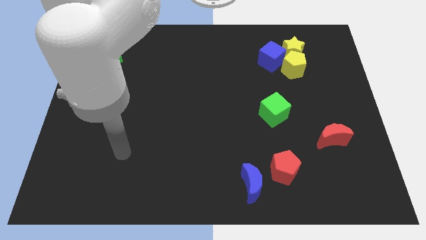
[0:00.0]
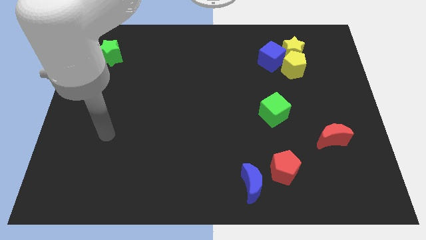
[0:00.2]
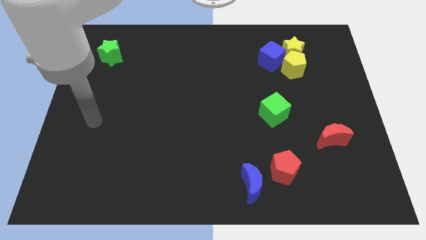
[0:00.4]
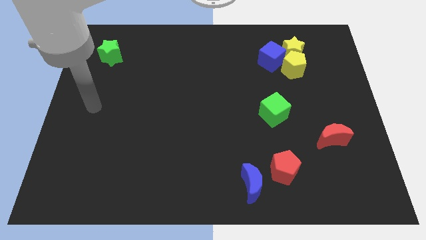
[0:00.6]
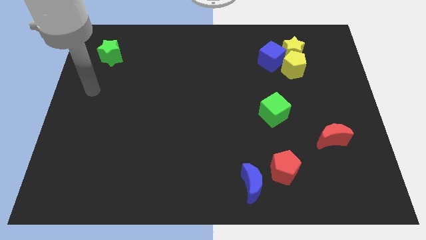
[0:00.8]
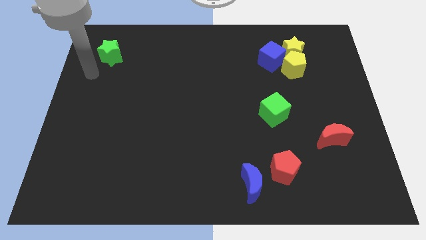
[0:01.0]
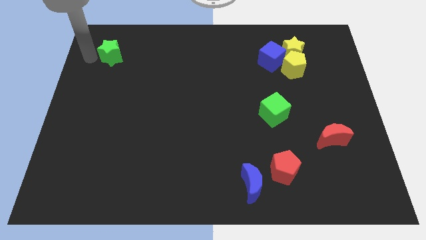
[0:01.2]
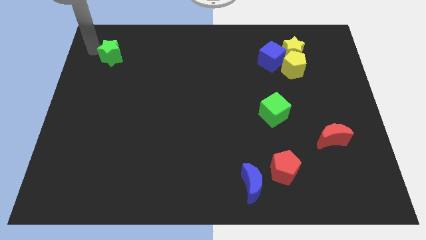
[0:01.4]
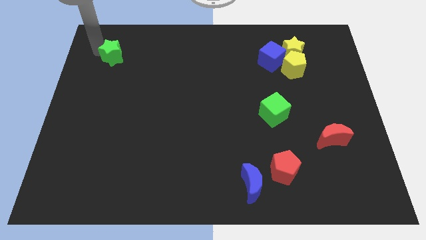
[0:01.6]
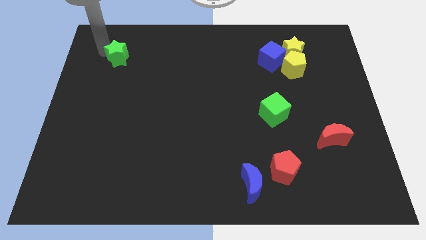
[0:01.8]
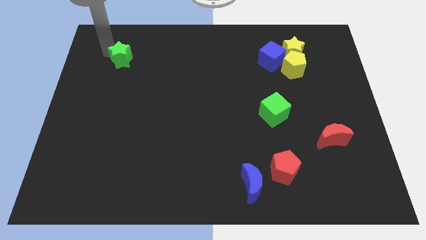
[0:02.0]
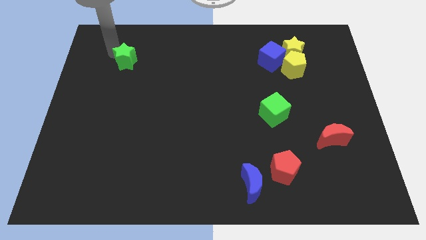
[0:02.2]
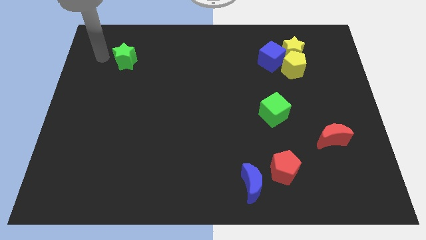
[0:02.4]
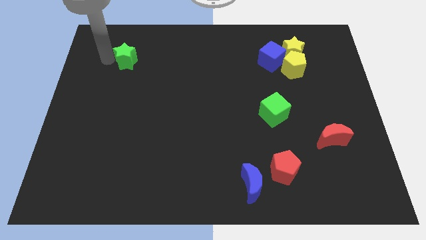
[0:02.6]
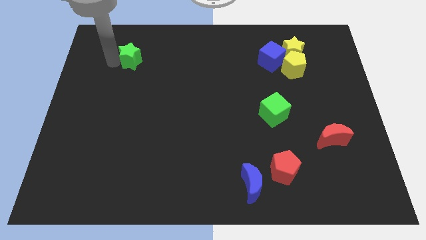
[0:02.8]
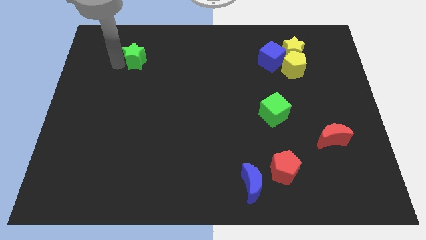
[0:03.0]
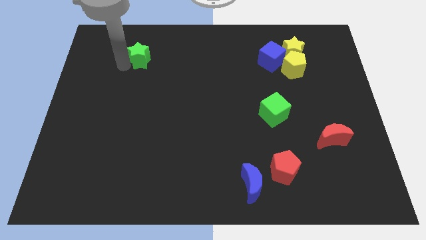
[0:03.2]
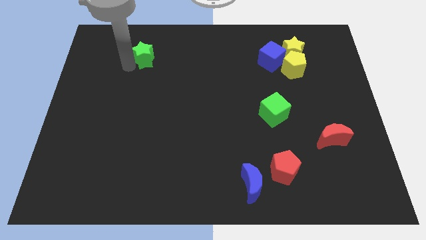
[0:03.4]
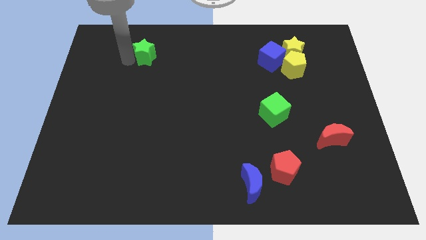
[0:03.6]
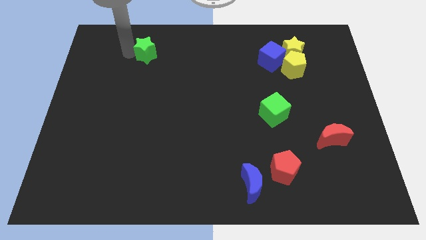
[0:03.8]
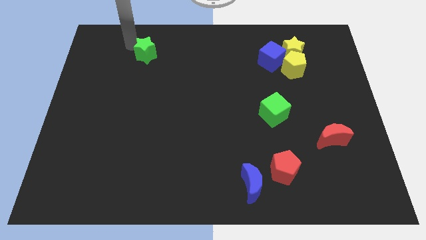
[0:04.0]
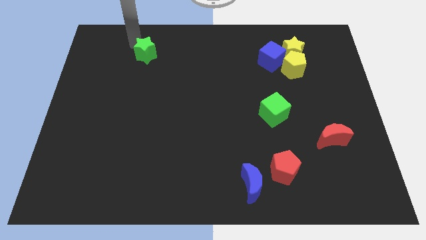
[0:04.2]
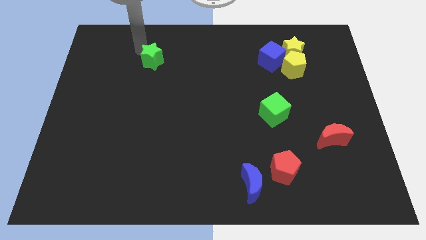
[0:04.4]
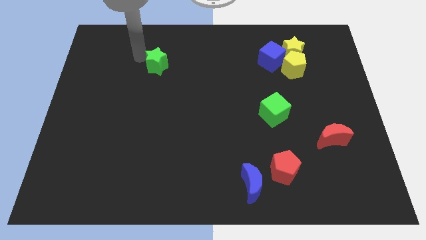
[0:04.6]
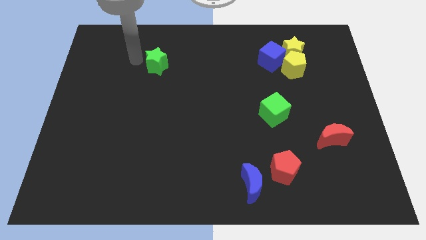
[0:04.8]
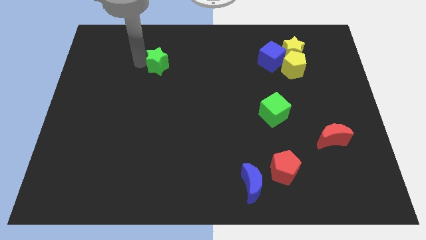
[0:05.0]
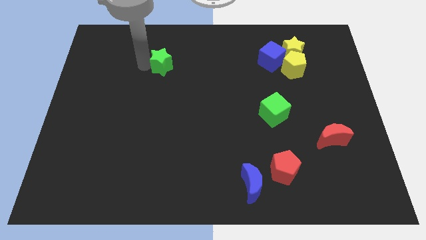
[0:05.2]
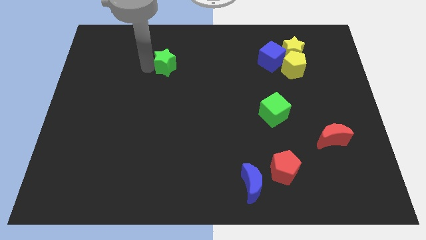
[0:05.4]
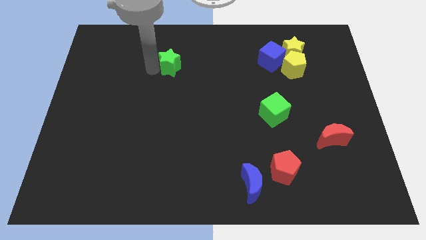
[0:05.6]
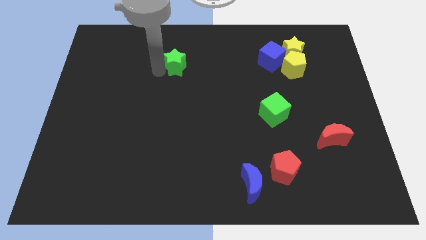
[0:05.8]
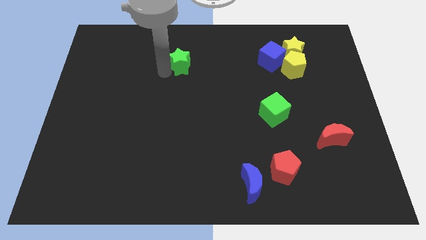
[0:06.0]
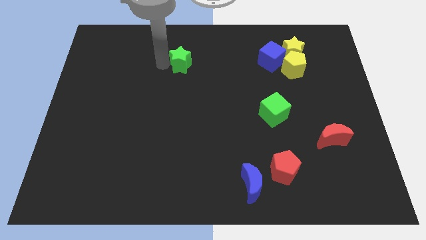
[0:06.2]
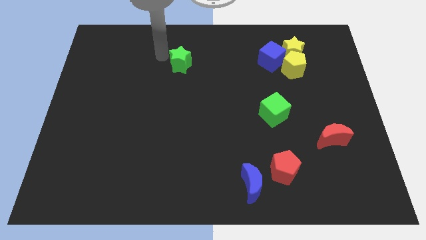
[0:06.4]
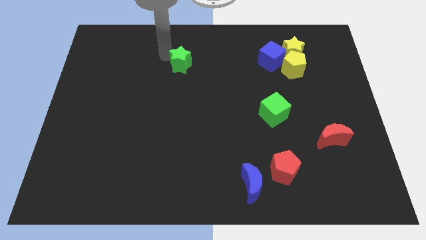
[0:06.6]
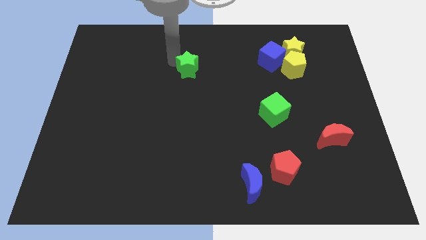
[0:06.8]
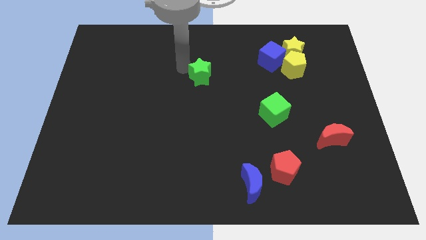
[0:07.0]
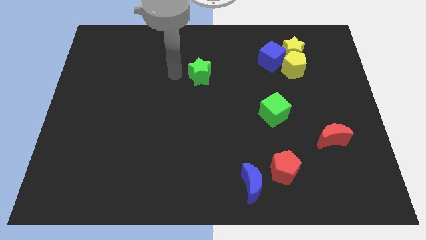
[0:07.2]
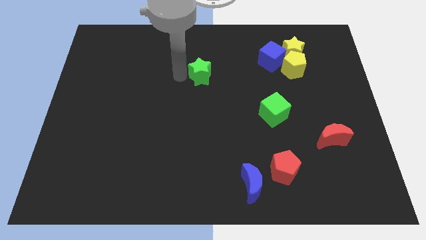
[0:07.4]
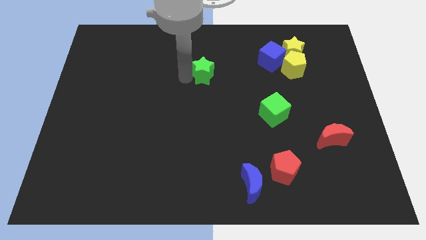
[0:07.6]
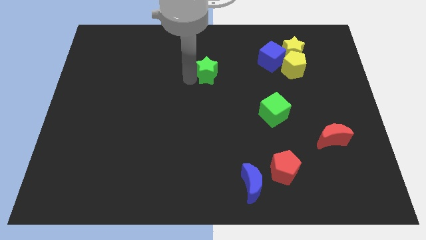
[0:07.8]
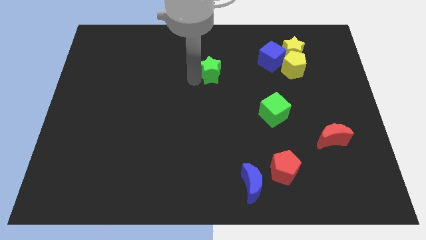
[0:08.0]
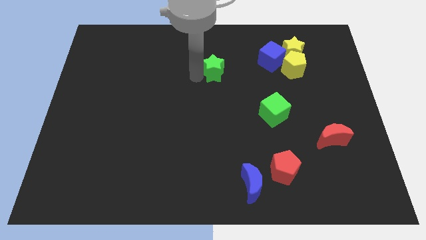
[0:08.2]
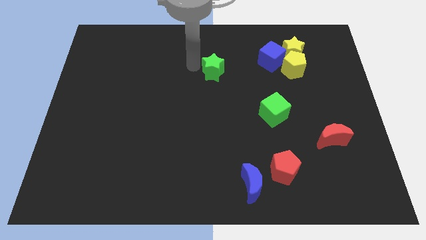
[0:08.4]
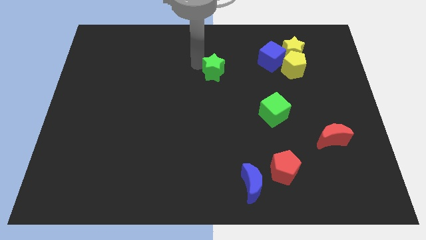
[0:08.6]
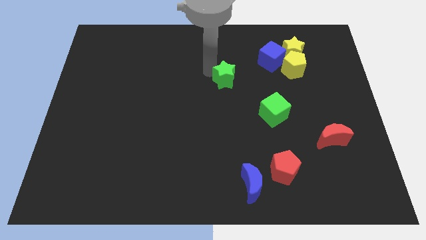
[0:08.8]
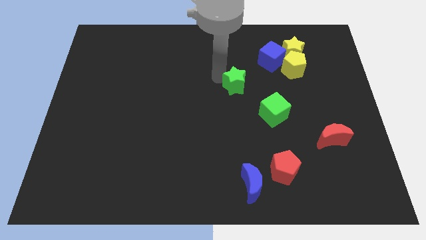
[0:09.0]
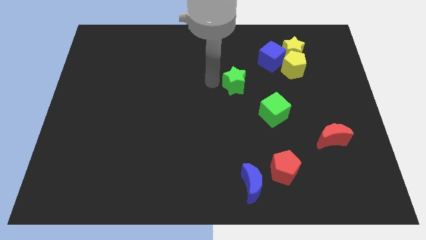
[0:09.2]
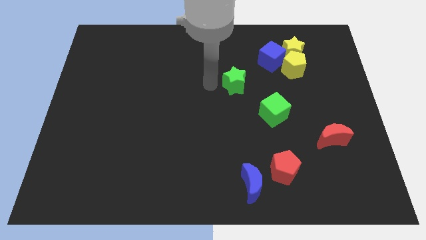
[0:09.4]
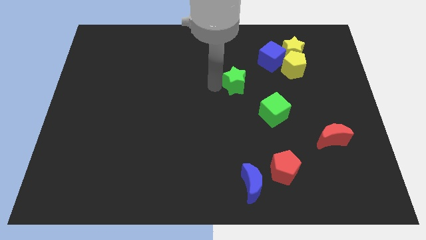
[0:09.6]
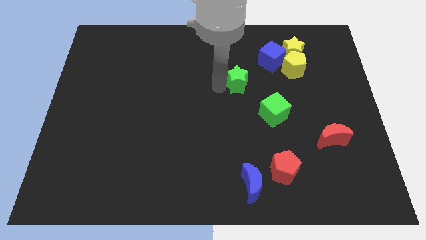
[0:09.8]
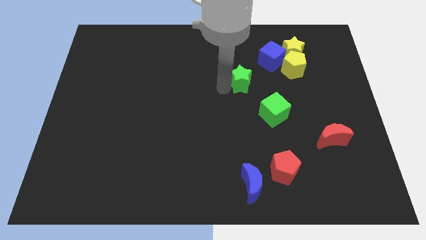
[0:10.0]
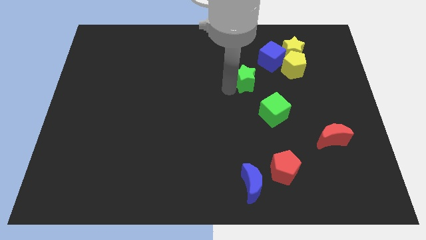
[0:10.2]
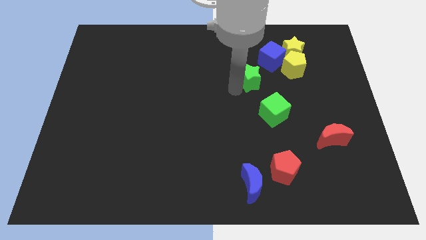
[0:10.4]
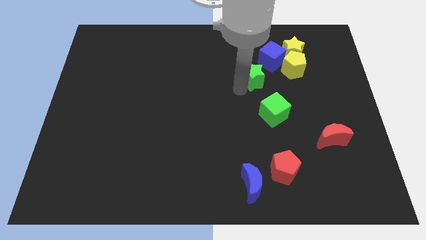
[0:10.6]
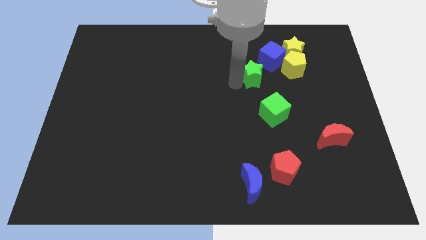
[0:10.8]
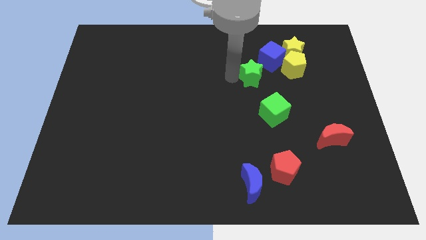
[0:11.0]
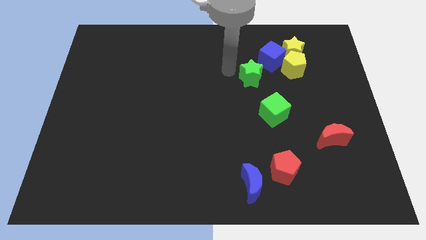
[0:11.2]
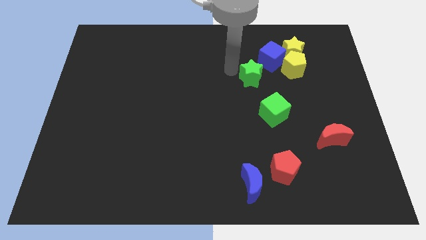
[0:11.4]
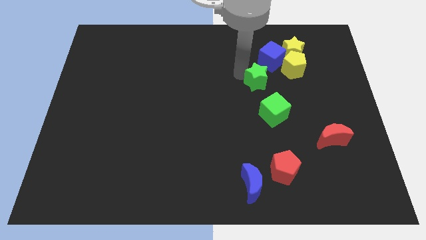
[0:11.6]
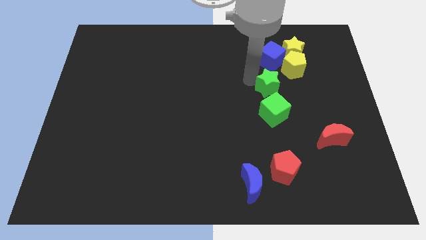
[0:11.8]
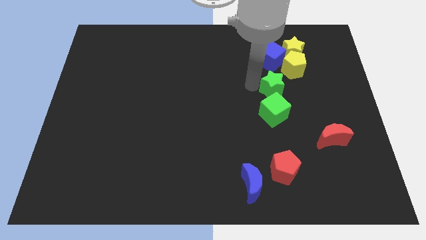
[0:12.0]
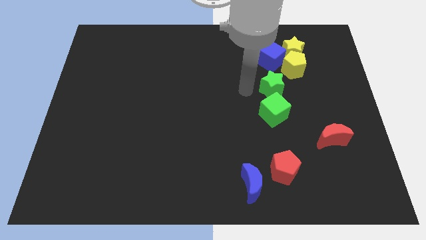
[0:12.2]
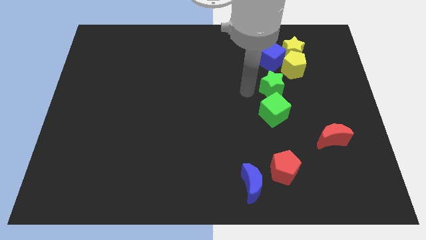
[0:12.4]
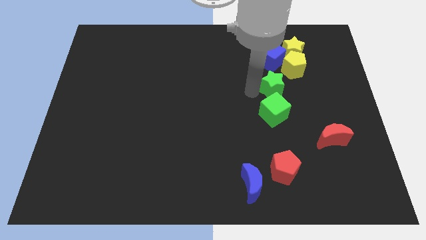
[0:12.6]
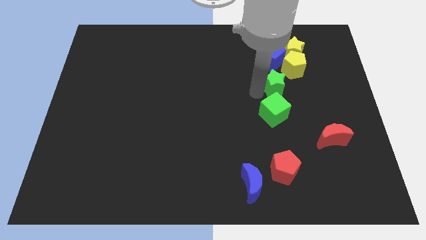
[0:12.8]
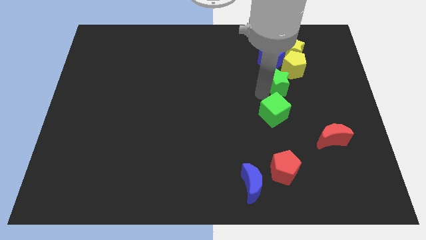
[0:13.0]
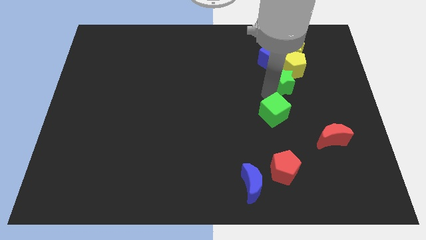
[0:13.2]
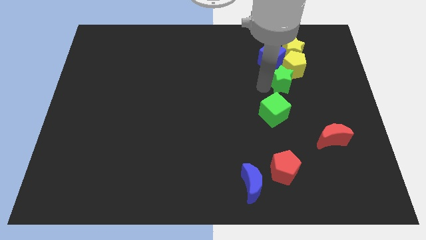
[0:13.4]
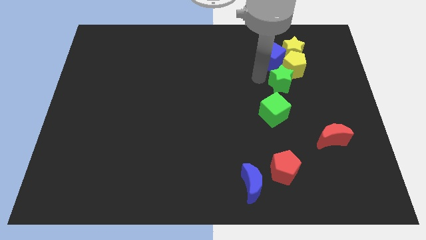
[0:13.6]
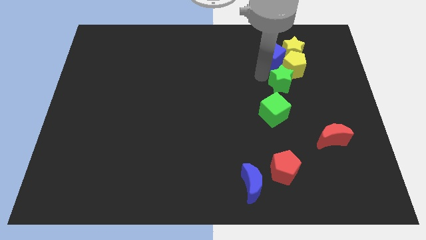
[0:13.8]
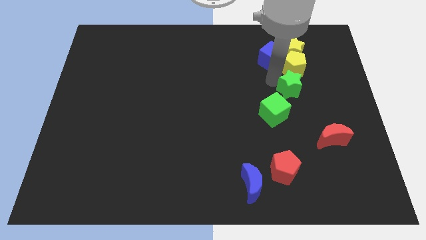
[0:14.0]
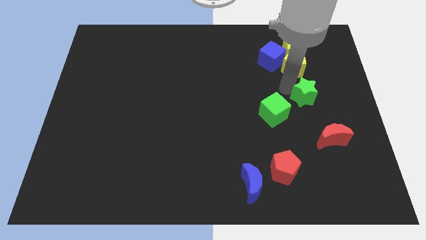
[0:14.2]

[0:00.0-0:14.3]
slide the green star above the red moon

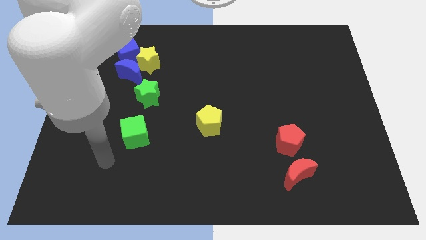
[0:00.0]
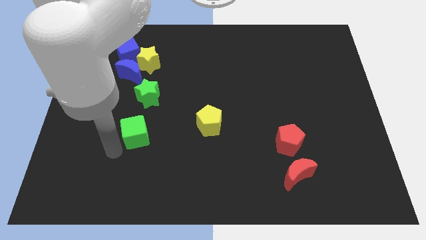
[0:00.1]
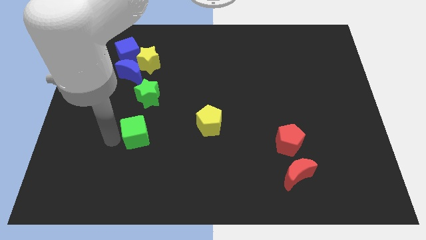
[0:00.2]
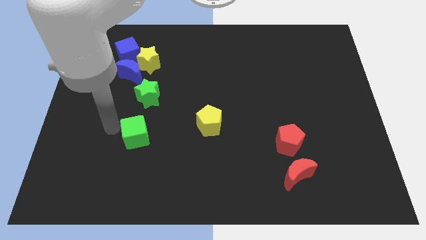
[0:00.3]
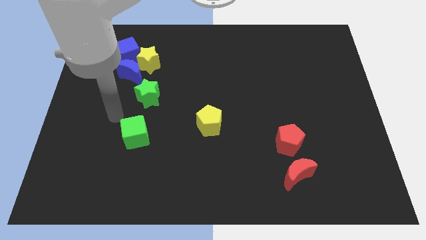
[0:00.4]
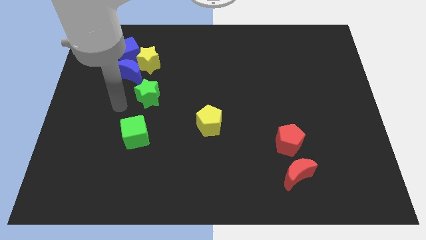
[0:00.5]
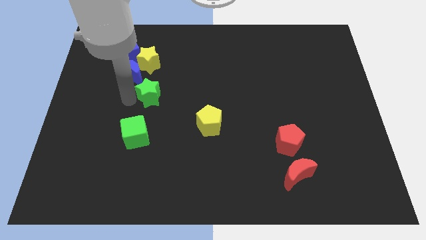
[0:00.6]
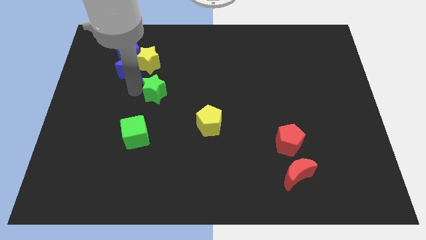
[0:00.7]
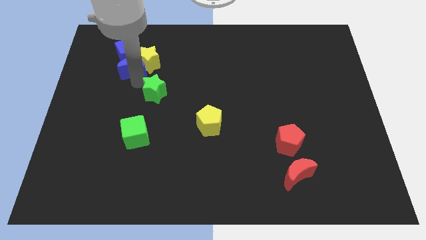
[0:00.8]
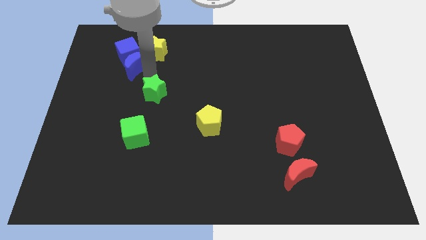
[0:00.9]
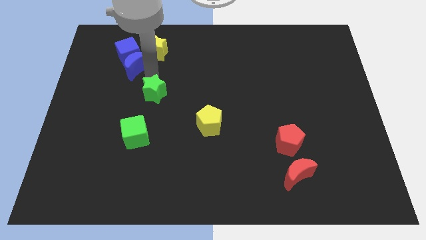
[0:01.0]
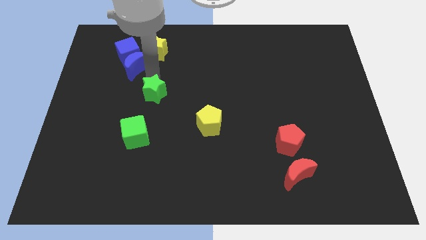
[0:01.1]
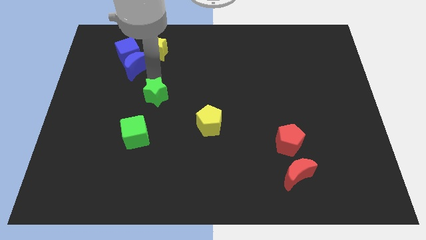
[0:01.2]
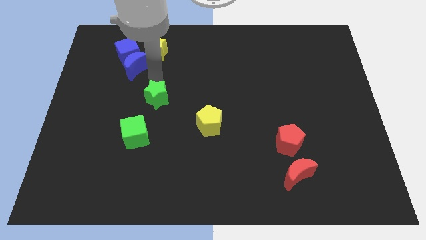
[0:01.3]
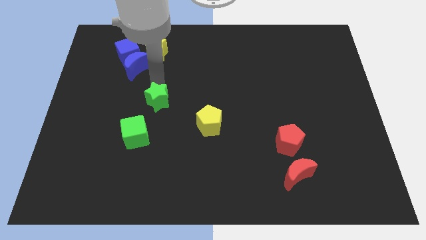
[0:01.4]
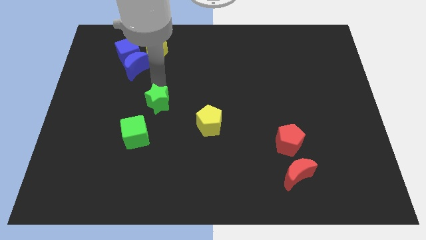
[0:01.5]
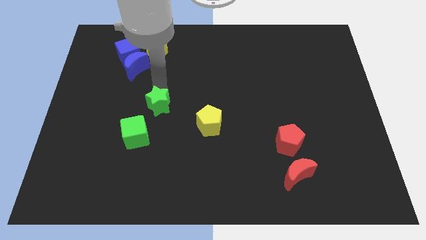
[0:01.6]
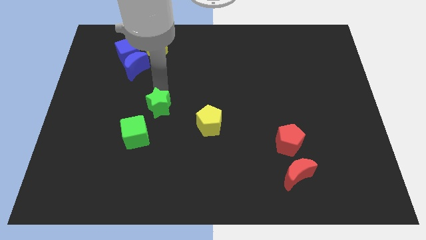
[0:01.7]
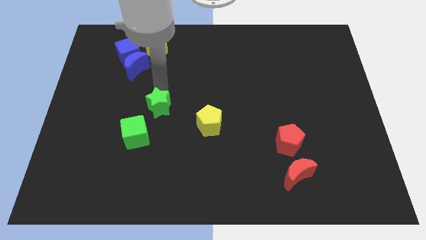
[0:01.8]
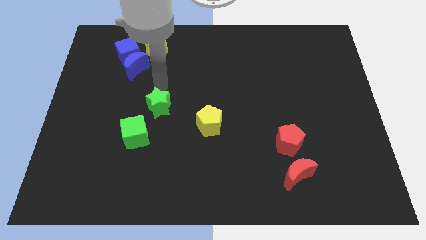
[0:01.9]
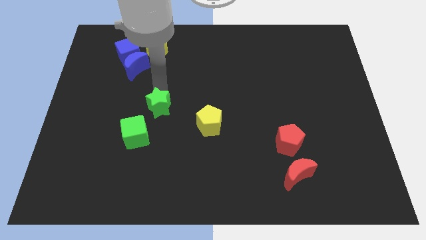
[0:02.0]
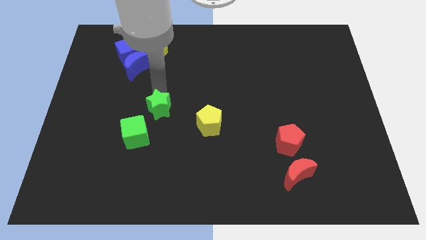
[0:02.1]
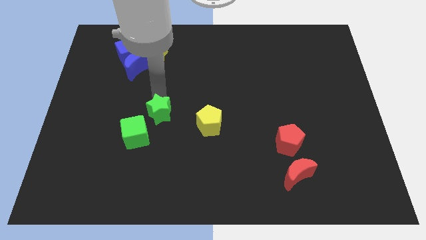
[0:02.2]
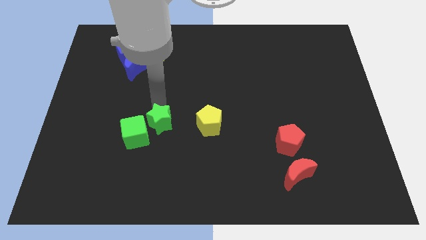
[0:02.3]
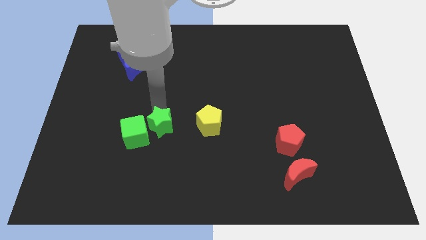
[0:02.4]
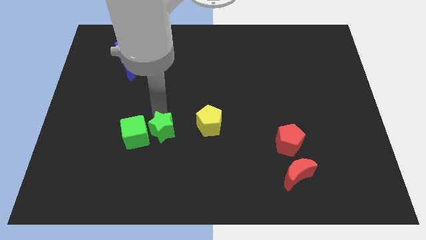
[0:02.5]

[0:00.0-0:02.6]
push the green star to the bottom right of the green cube
